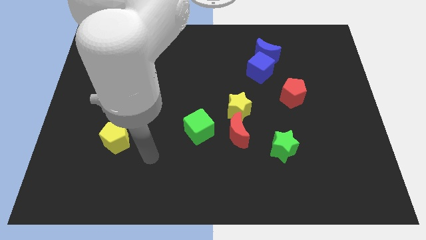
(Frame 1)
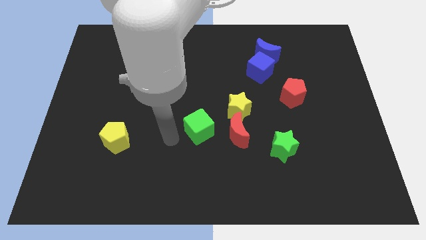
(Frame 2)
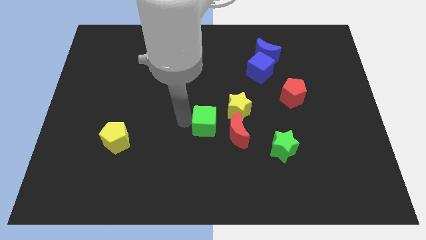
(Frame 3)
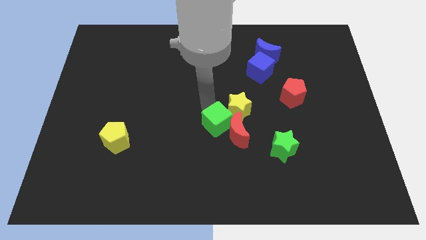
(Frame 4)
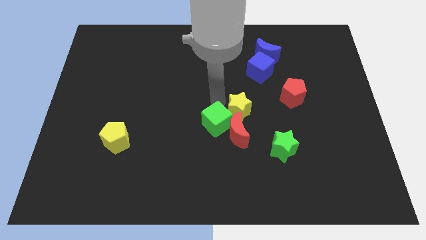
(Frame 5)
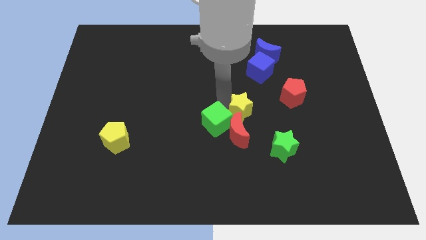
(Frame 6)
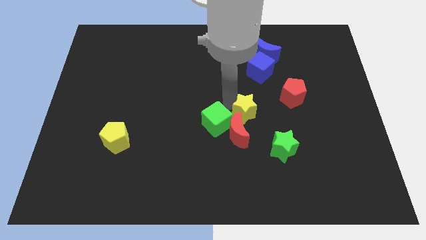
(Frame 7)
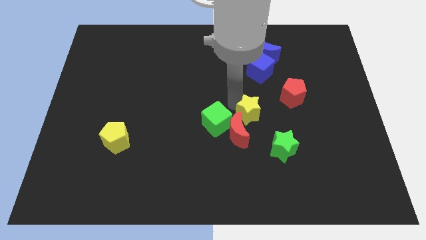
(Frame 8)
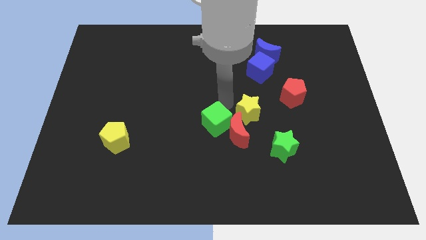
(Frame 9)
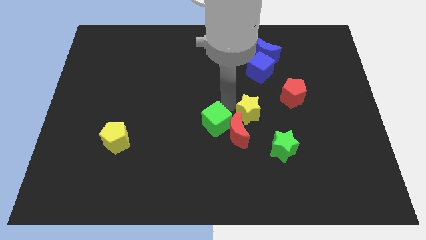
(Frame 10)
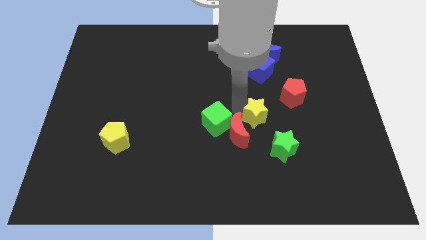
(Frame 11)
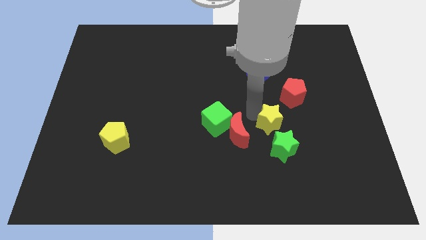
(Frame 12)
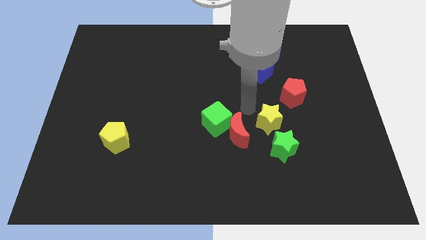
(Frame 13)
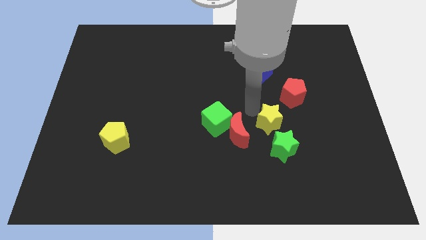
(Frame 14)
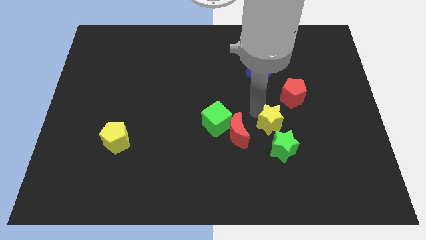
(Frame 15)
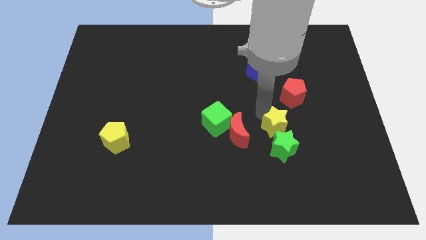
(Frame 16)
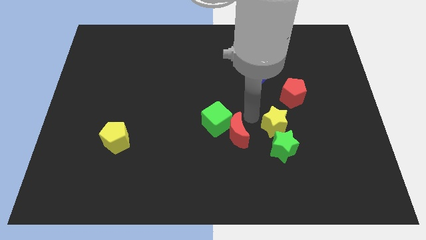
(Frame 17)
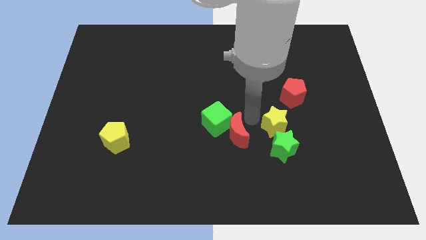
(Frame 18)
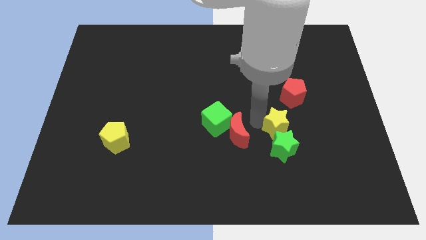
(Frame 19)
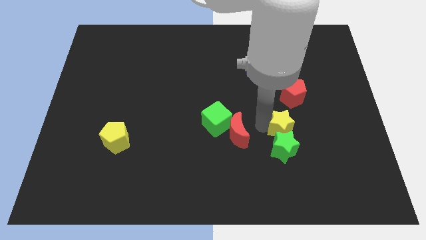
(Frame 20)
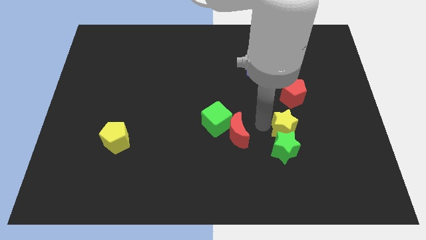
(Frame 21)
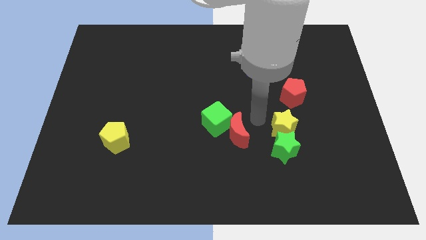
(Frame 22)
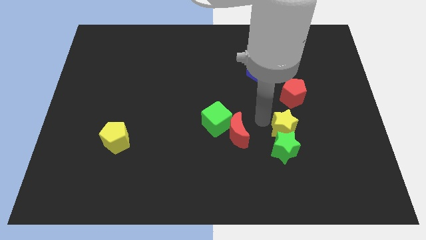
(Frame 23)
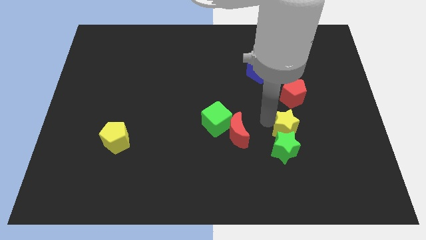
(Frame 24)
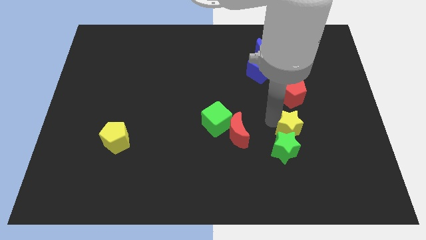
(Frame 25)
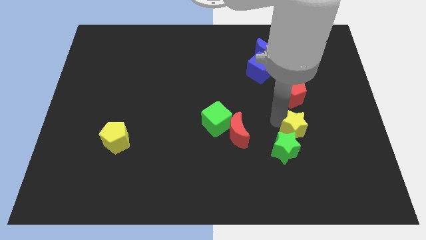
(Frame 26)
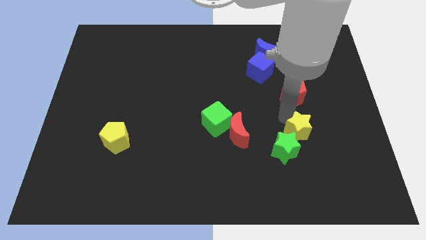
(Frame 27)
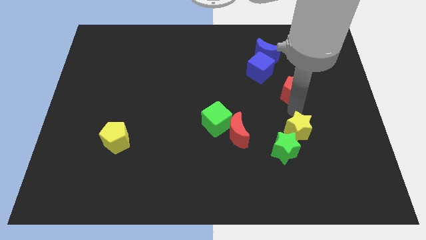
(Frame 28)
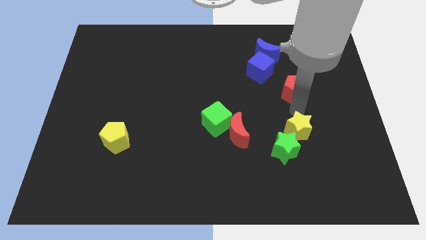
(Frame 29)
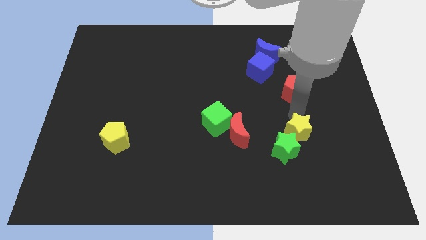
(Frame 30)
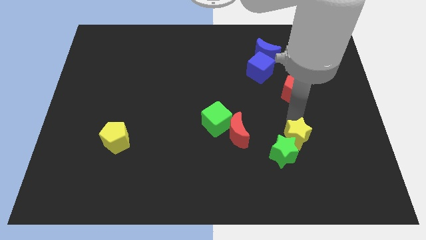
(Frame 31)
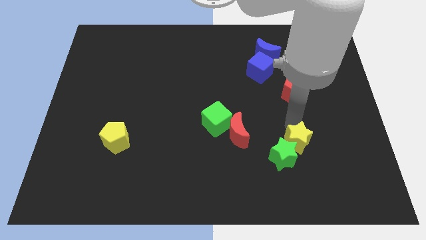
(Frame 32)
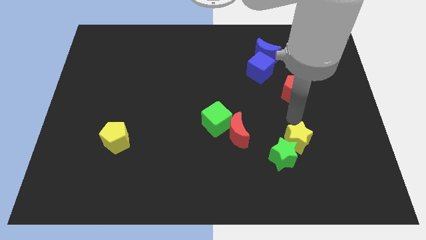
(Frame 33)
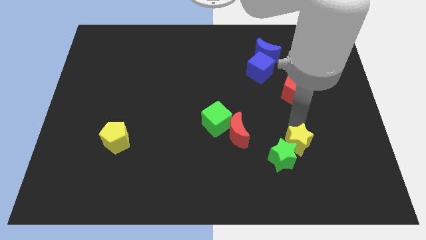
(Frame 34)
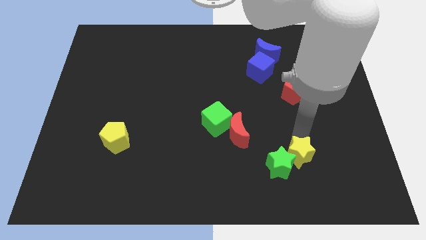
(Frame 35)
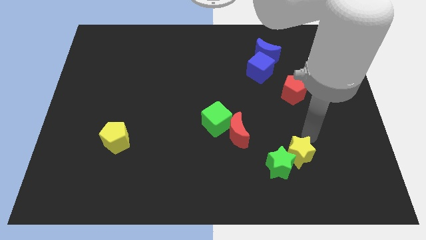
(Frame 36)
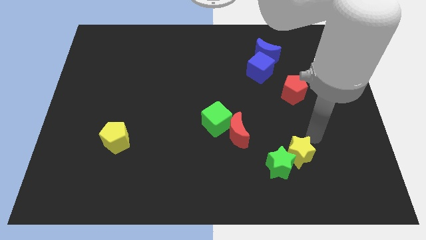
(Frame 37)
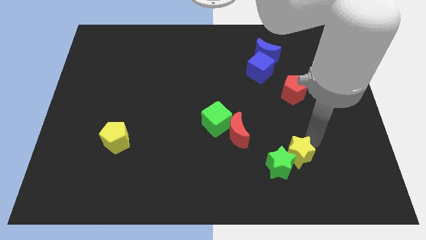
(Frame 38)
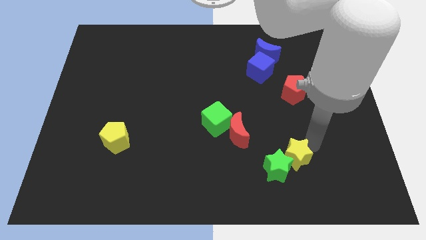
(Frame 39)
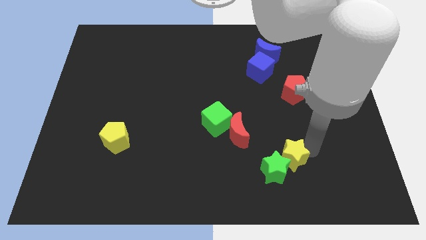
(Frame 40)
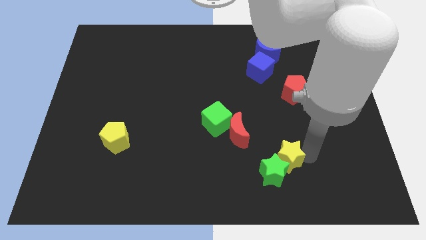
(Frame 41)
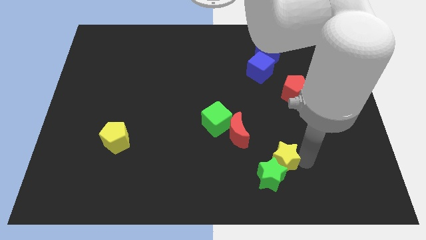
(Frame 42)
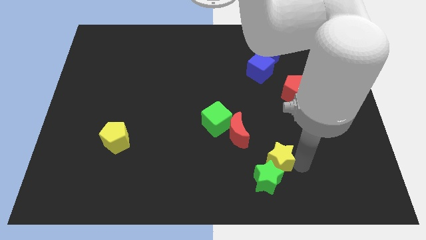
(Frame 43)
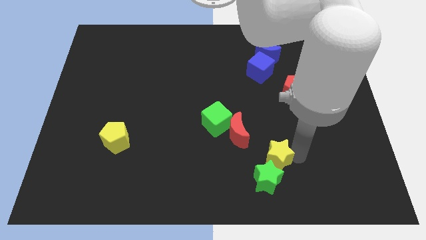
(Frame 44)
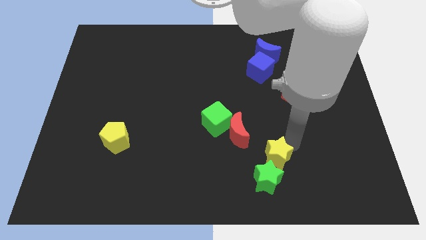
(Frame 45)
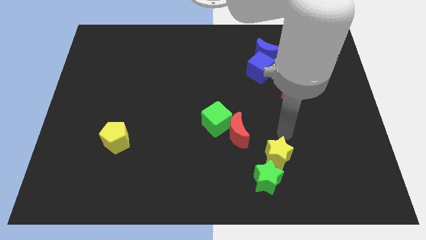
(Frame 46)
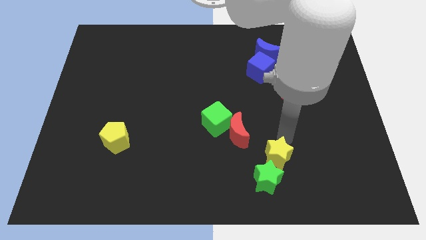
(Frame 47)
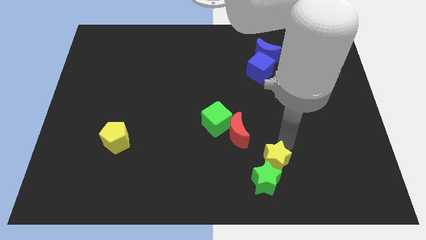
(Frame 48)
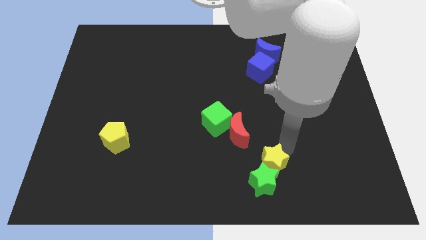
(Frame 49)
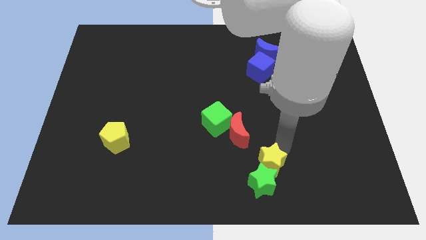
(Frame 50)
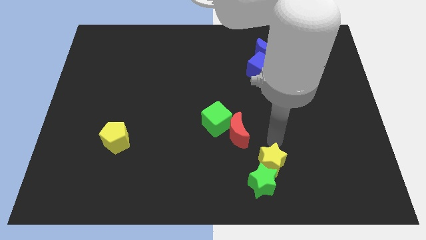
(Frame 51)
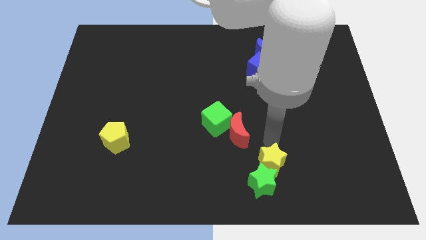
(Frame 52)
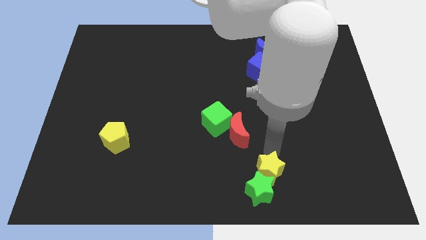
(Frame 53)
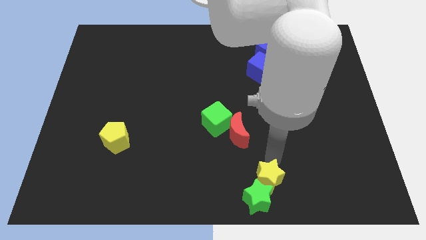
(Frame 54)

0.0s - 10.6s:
push the yellow star to the bottom side

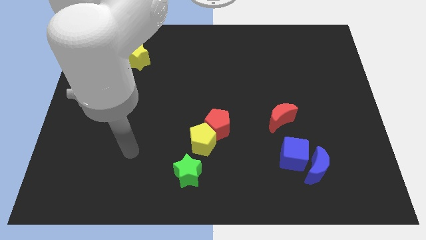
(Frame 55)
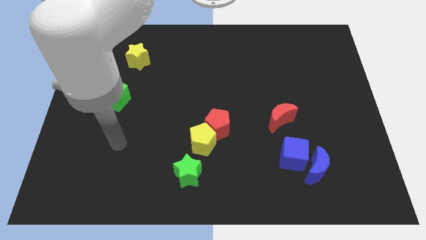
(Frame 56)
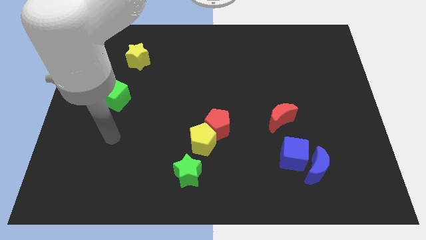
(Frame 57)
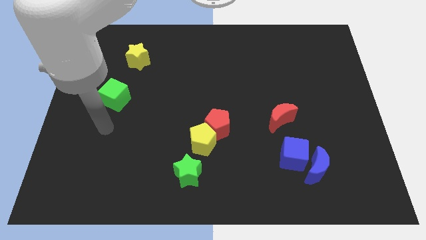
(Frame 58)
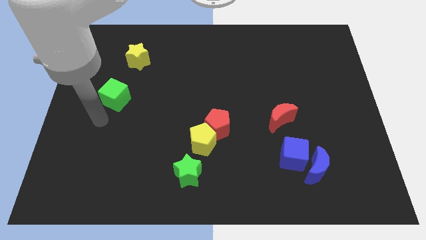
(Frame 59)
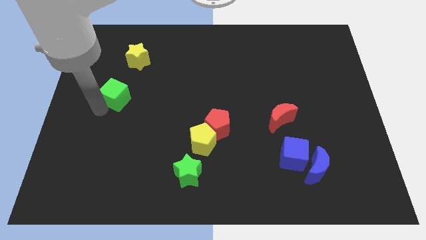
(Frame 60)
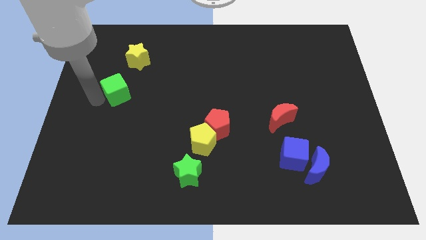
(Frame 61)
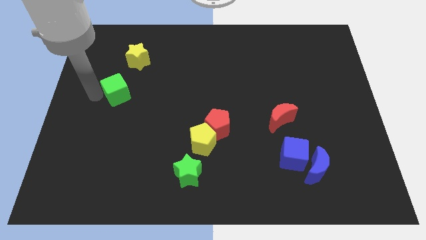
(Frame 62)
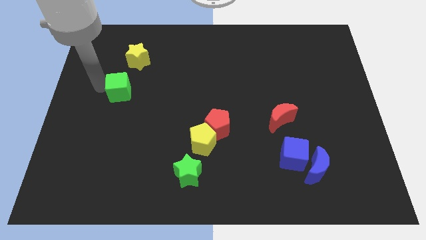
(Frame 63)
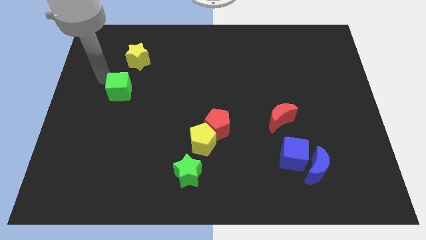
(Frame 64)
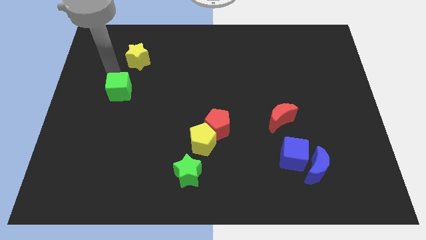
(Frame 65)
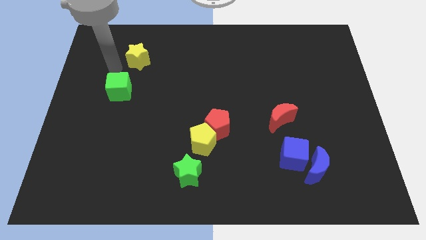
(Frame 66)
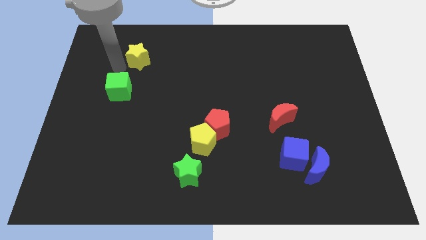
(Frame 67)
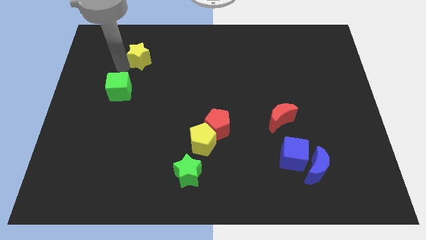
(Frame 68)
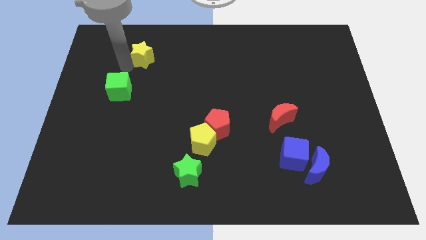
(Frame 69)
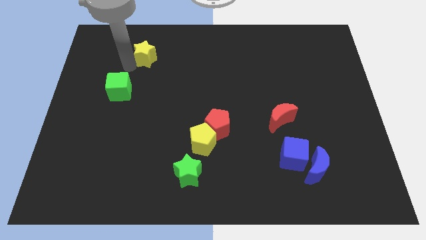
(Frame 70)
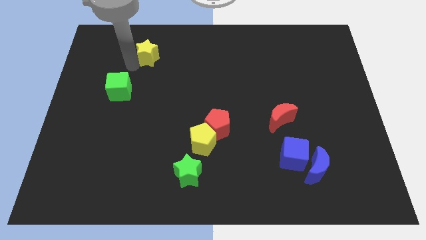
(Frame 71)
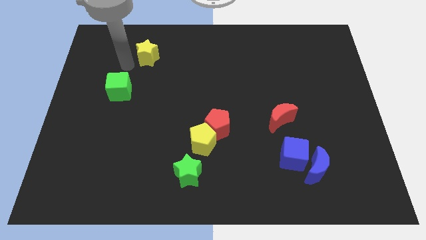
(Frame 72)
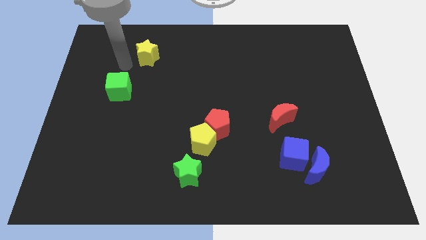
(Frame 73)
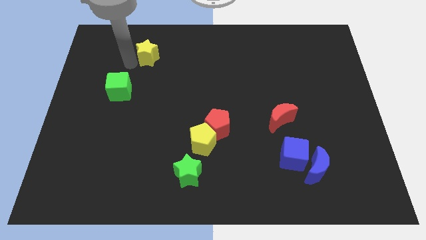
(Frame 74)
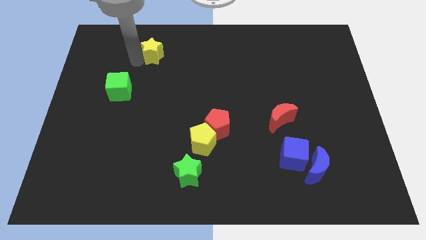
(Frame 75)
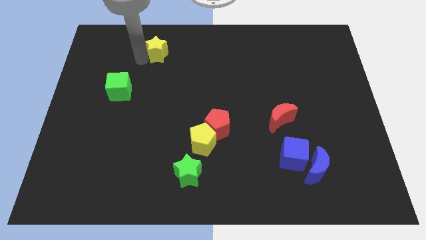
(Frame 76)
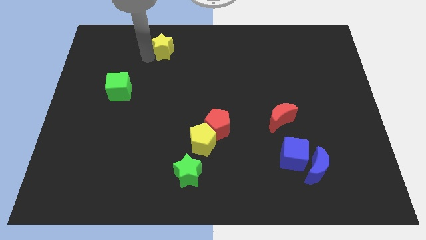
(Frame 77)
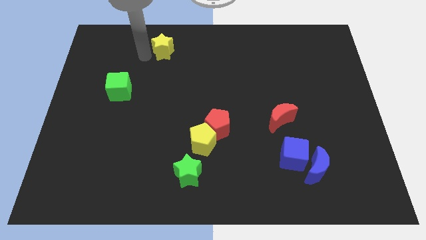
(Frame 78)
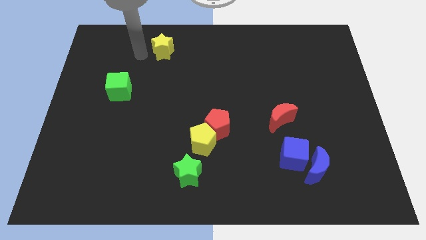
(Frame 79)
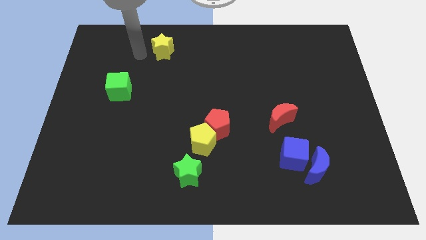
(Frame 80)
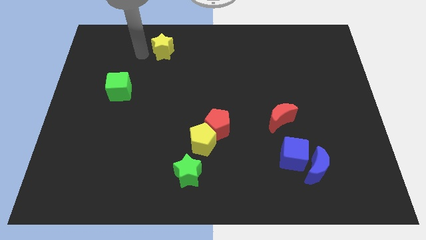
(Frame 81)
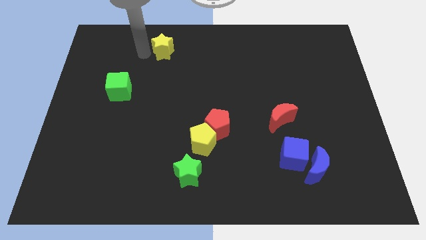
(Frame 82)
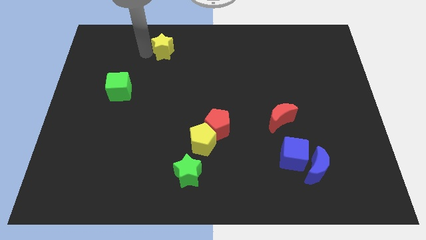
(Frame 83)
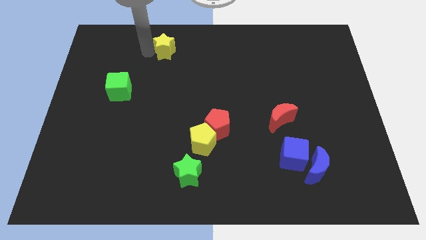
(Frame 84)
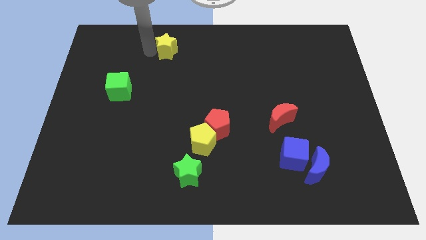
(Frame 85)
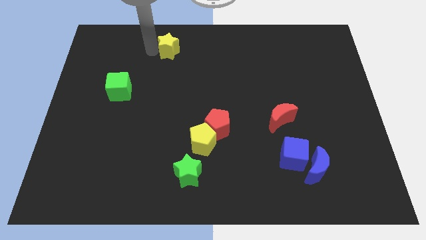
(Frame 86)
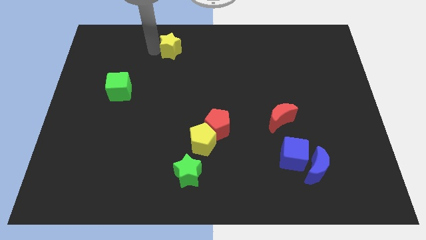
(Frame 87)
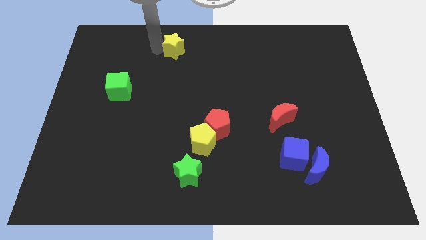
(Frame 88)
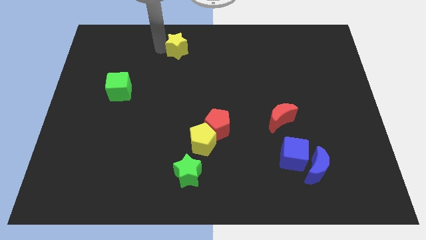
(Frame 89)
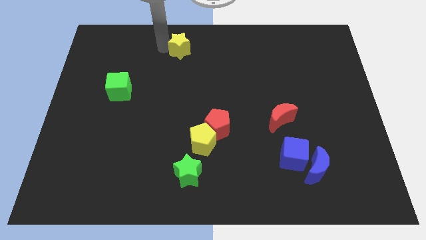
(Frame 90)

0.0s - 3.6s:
push the yellow star to the top side
